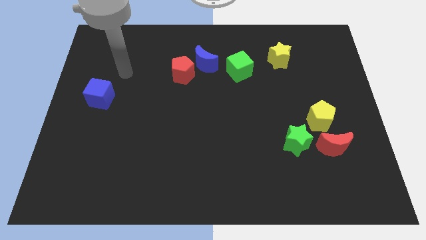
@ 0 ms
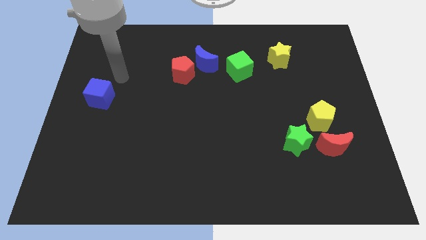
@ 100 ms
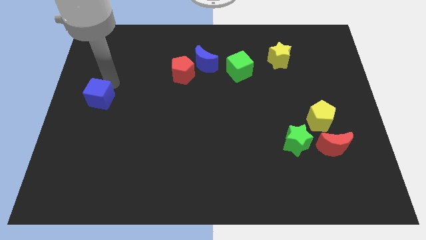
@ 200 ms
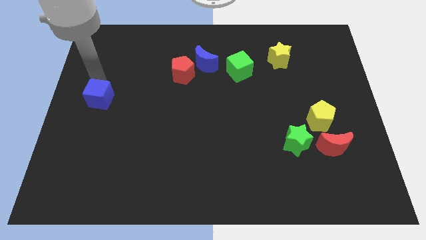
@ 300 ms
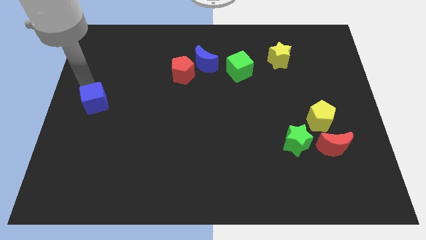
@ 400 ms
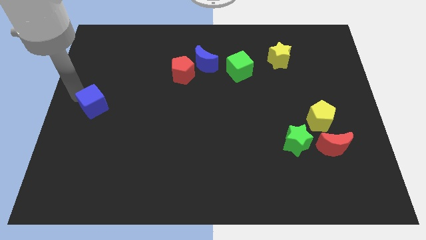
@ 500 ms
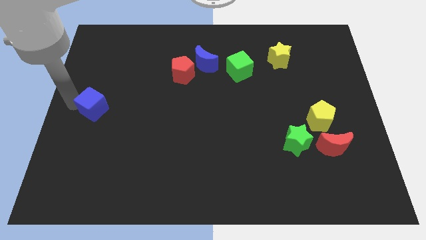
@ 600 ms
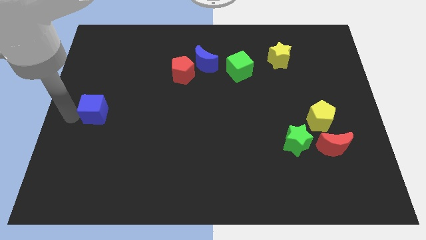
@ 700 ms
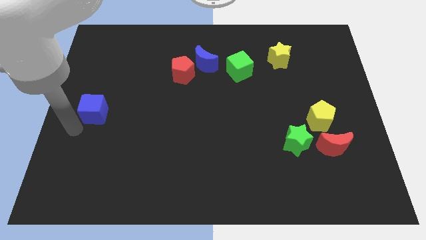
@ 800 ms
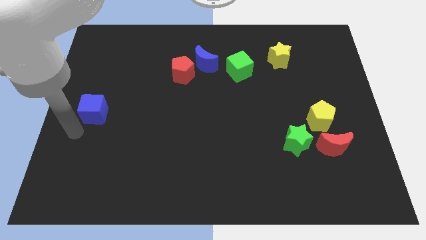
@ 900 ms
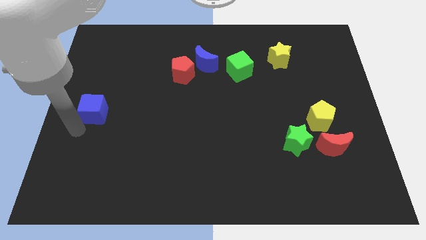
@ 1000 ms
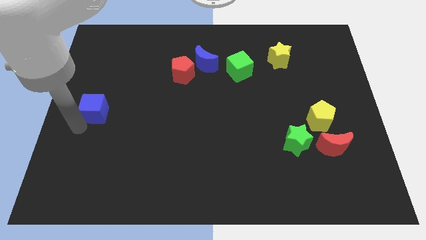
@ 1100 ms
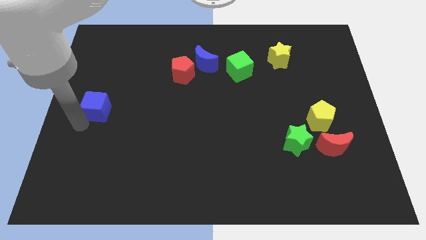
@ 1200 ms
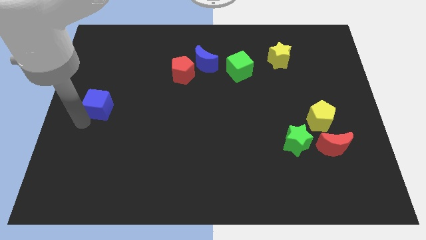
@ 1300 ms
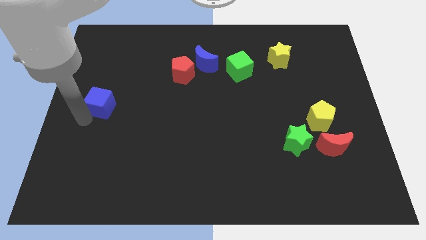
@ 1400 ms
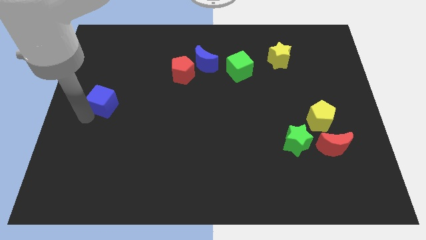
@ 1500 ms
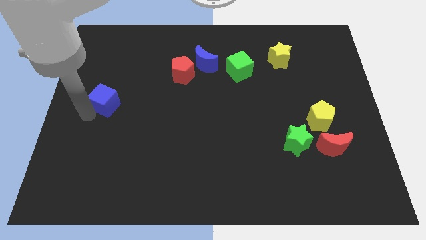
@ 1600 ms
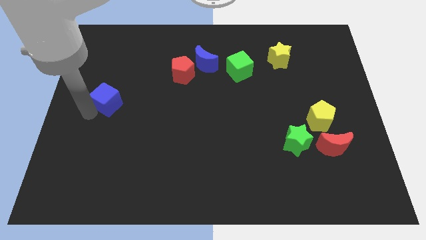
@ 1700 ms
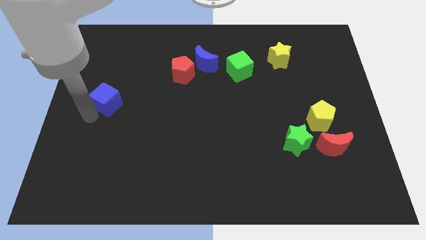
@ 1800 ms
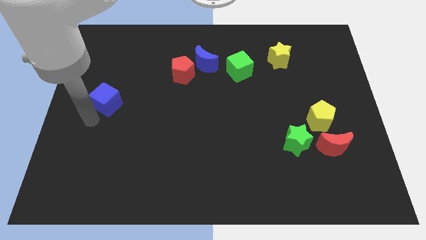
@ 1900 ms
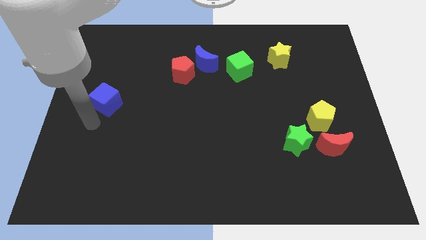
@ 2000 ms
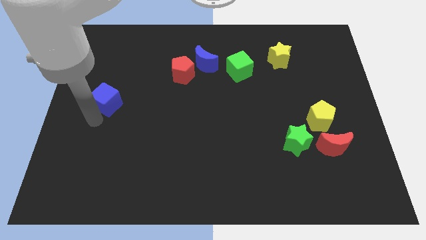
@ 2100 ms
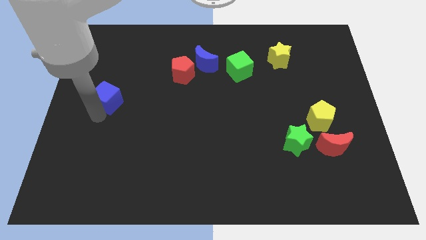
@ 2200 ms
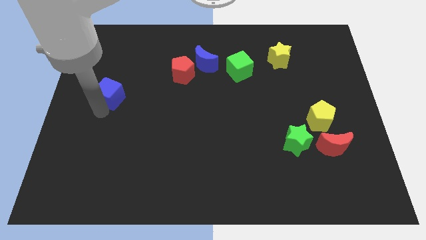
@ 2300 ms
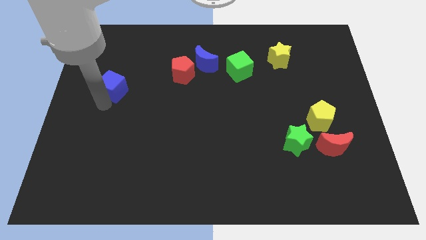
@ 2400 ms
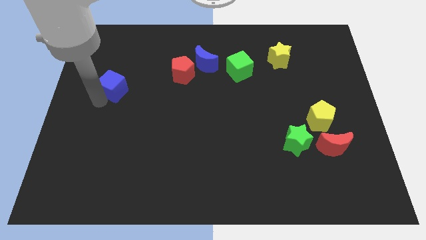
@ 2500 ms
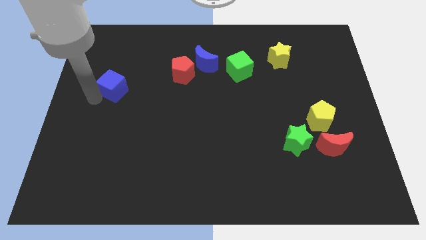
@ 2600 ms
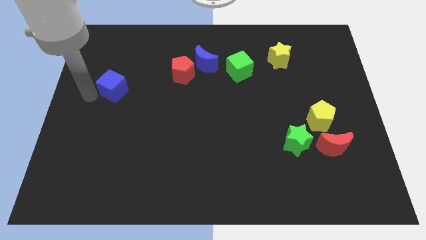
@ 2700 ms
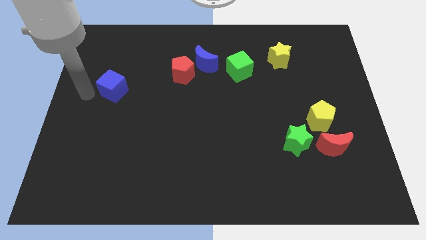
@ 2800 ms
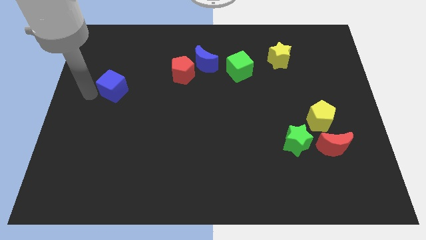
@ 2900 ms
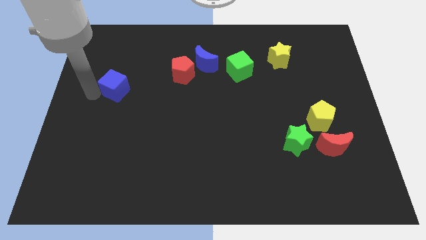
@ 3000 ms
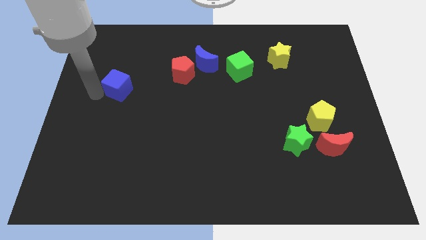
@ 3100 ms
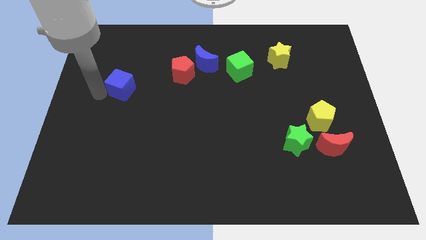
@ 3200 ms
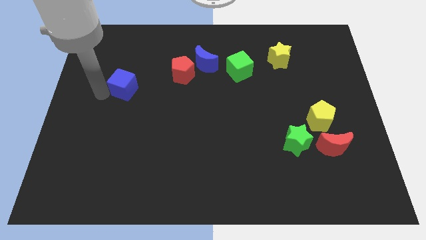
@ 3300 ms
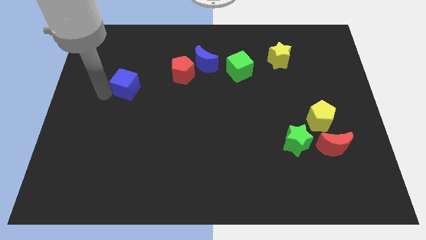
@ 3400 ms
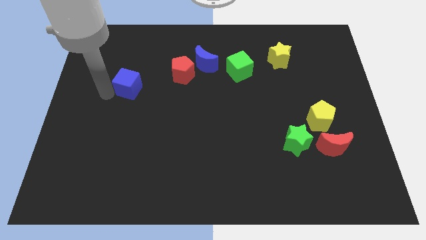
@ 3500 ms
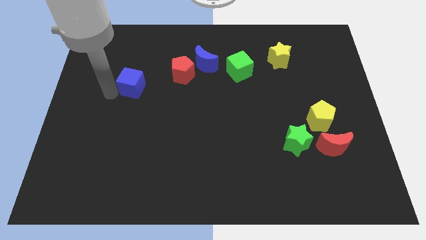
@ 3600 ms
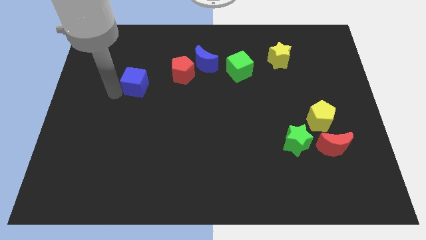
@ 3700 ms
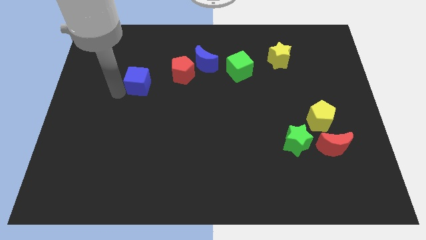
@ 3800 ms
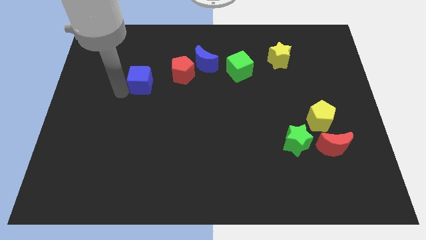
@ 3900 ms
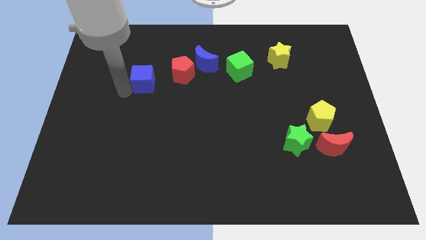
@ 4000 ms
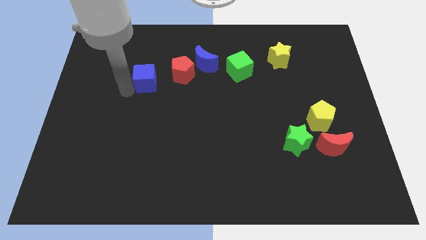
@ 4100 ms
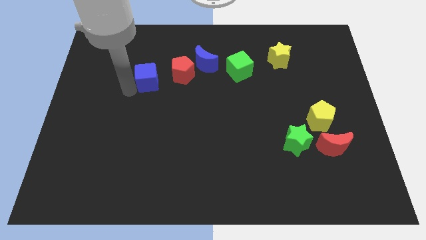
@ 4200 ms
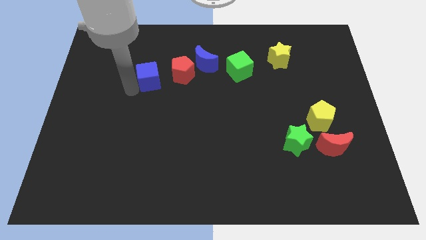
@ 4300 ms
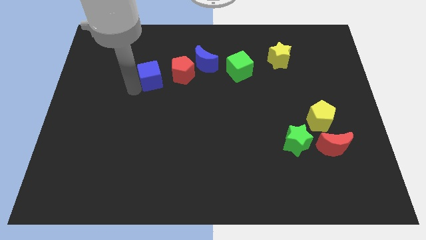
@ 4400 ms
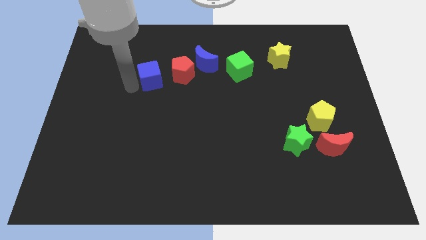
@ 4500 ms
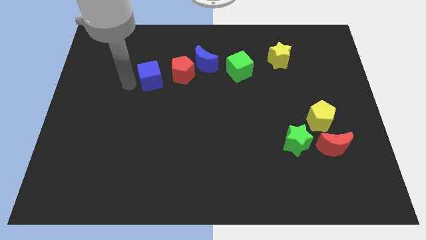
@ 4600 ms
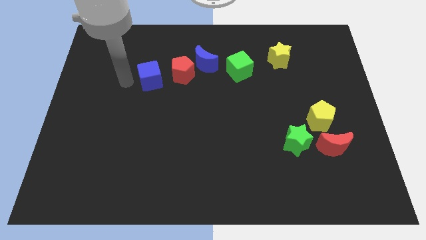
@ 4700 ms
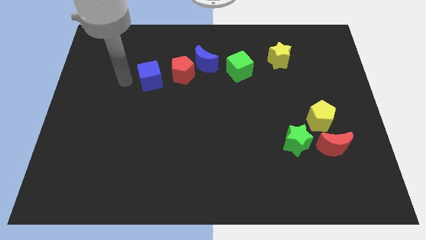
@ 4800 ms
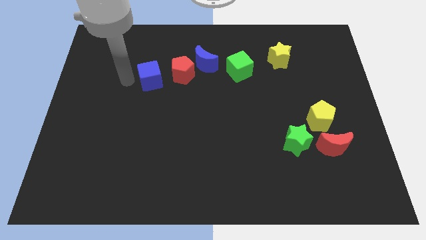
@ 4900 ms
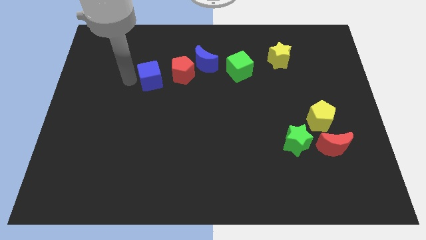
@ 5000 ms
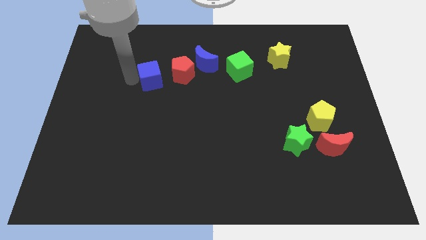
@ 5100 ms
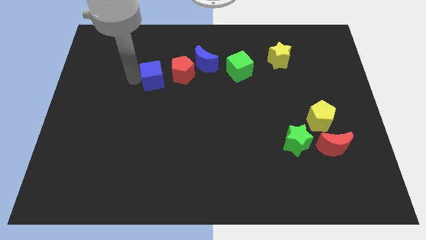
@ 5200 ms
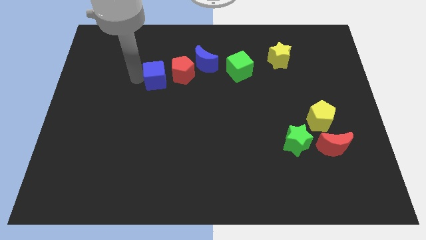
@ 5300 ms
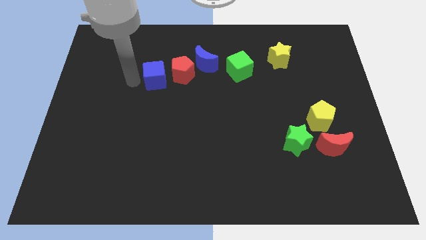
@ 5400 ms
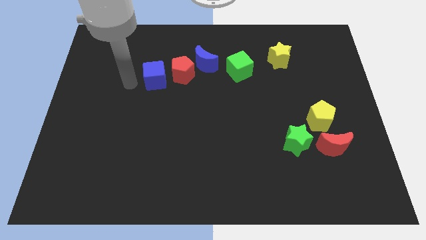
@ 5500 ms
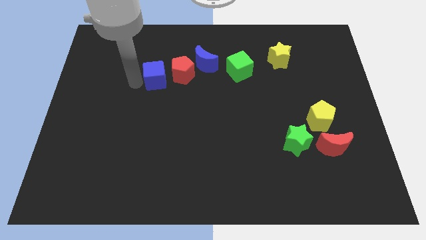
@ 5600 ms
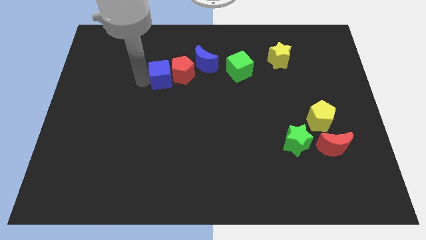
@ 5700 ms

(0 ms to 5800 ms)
put the blue cube to the red pentagon

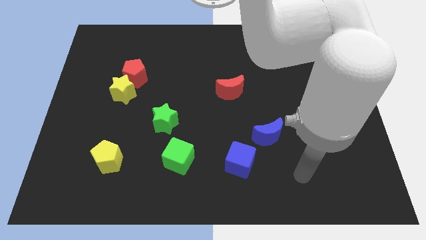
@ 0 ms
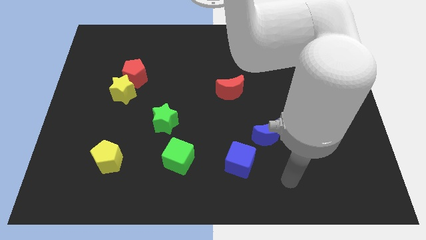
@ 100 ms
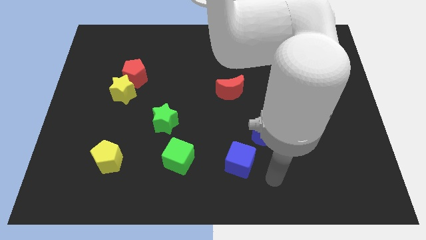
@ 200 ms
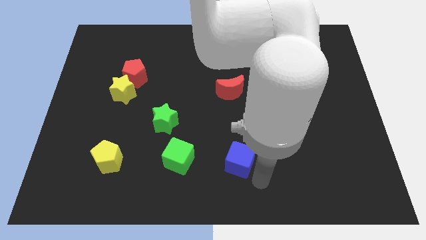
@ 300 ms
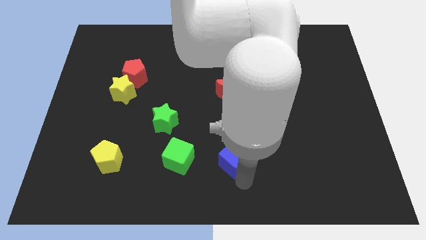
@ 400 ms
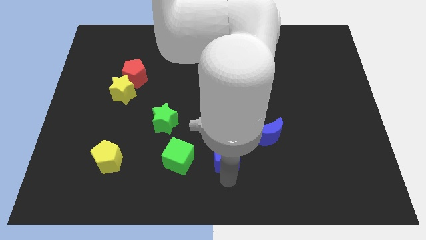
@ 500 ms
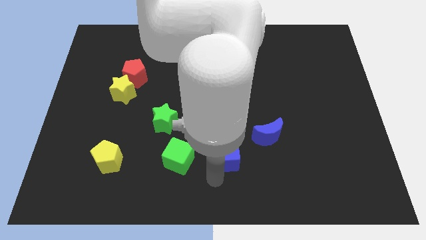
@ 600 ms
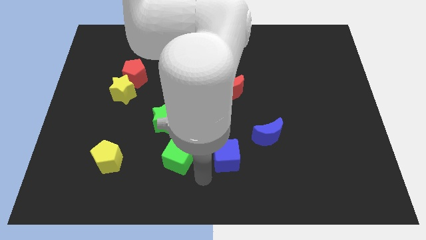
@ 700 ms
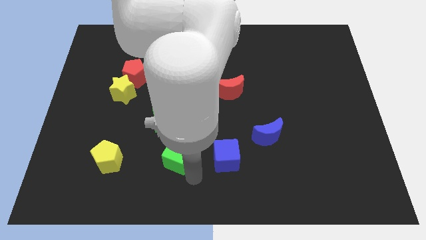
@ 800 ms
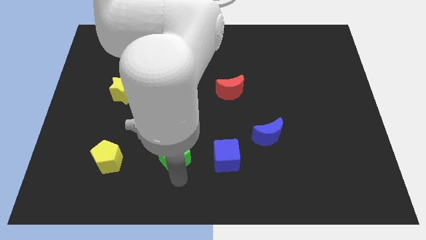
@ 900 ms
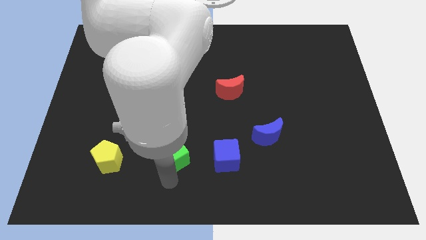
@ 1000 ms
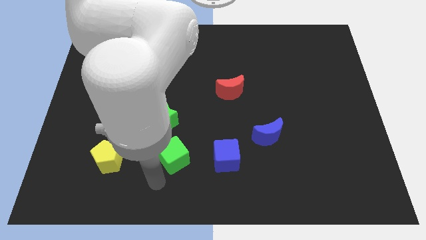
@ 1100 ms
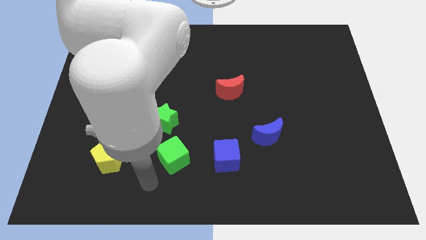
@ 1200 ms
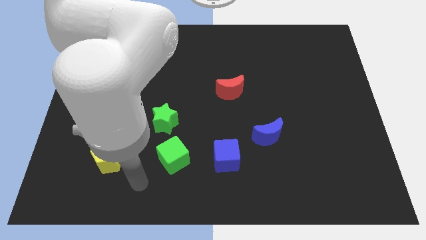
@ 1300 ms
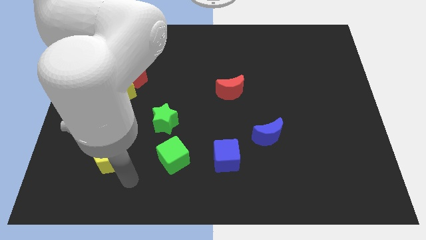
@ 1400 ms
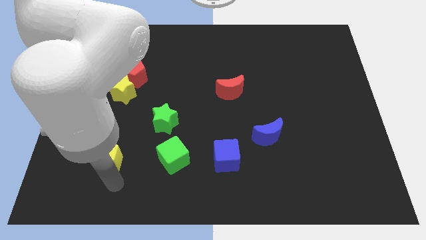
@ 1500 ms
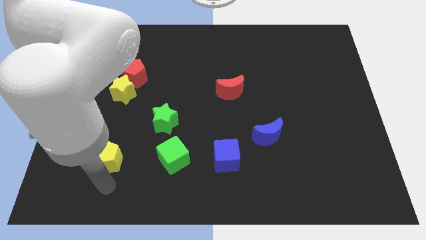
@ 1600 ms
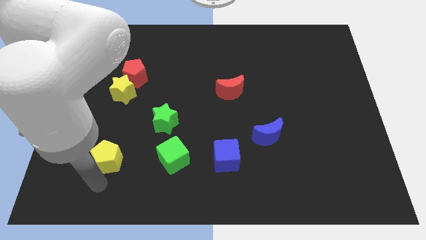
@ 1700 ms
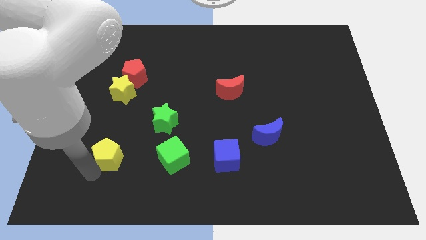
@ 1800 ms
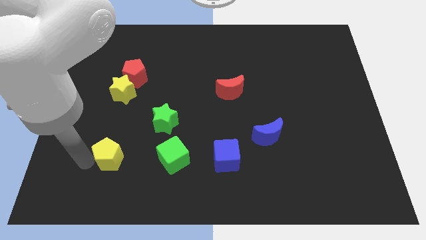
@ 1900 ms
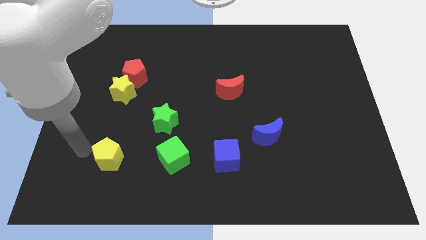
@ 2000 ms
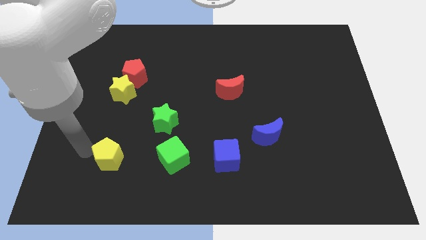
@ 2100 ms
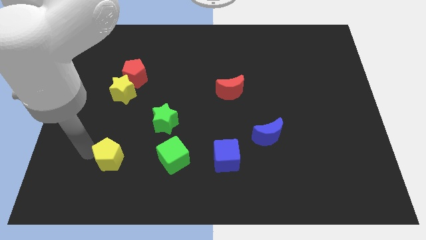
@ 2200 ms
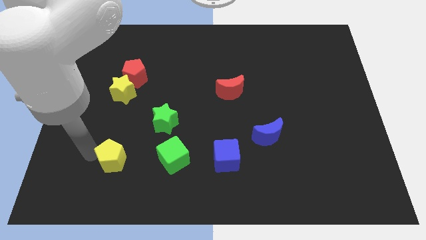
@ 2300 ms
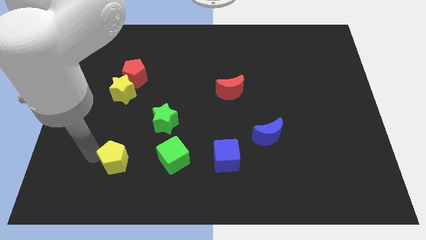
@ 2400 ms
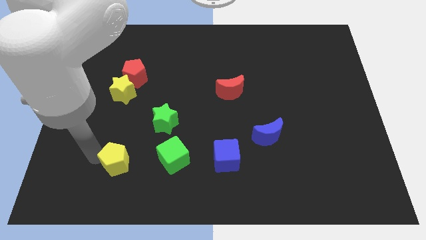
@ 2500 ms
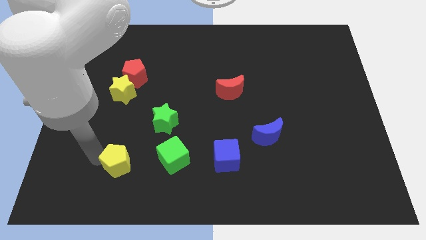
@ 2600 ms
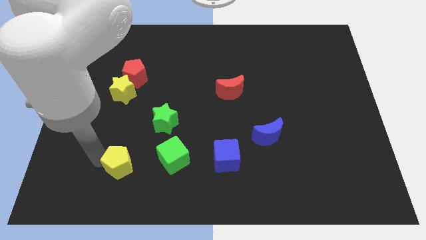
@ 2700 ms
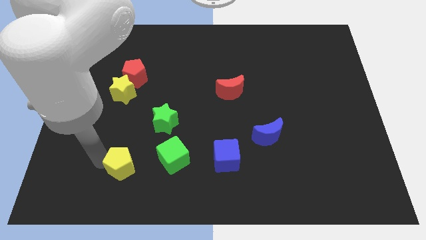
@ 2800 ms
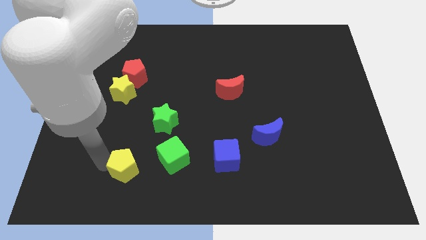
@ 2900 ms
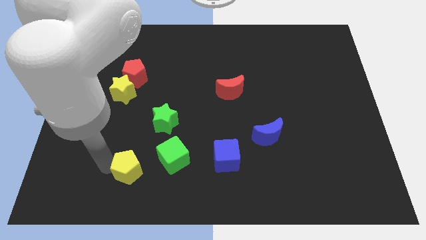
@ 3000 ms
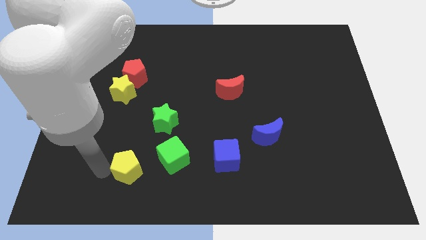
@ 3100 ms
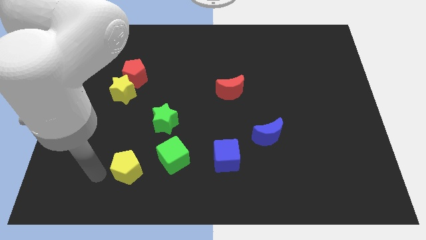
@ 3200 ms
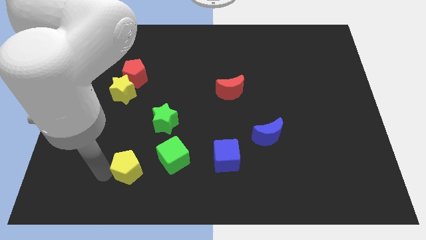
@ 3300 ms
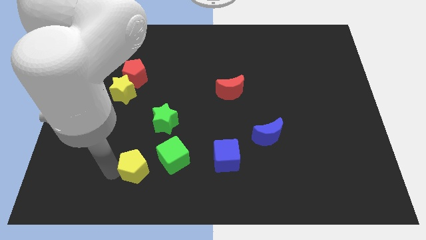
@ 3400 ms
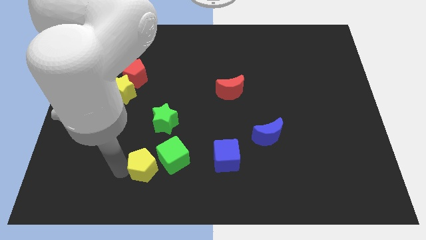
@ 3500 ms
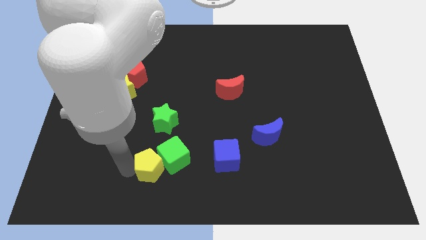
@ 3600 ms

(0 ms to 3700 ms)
slide the yellow pentagon to the green cube
